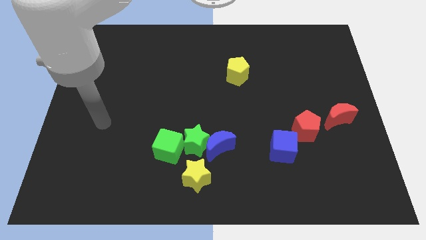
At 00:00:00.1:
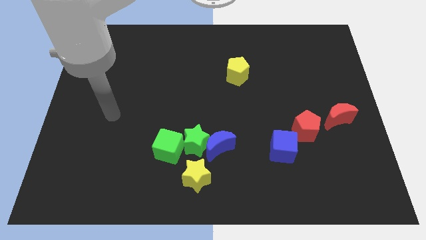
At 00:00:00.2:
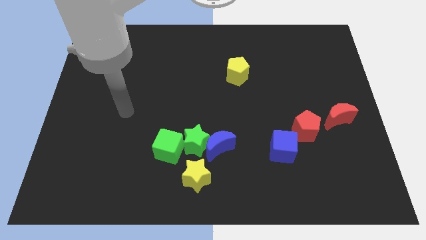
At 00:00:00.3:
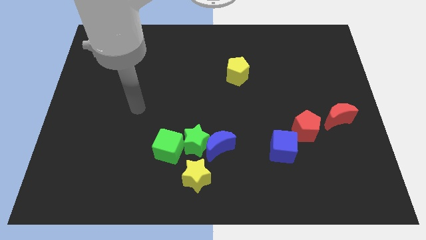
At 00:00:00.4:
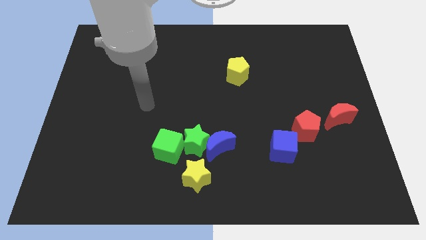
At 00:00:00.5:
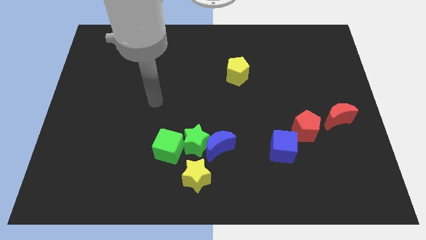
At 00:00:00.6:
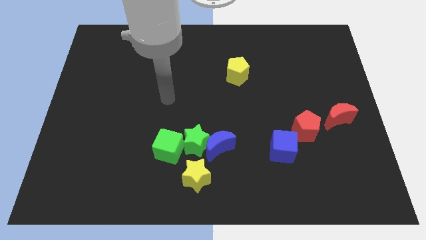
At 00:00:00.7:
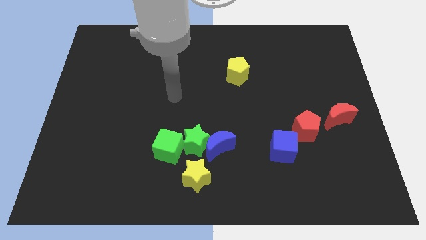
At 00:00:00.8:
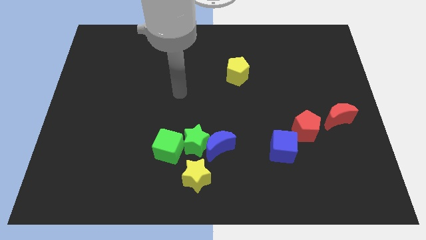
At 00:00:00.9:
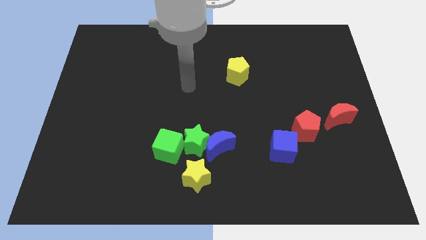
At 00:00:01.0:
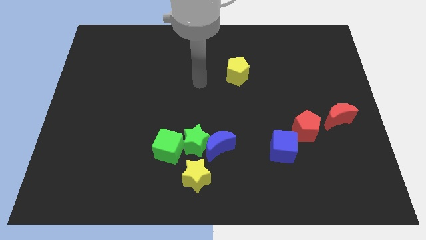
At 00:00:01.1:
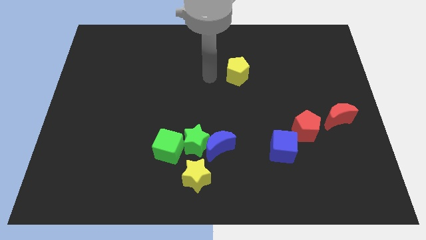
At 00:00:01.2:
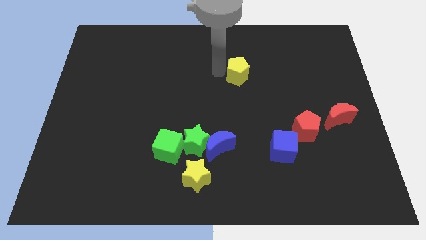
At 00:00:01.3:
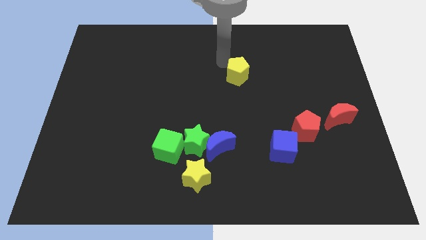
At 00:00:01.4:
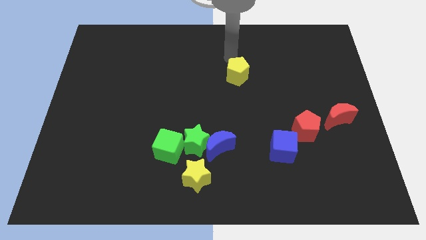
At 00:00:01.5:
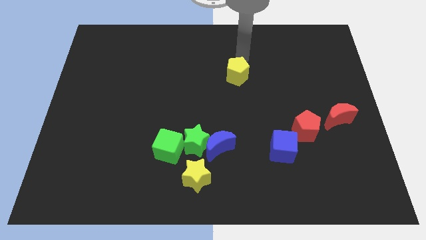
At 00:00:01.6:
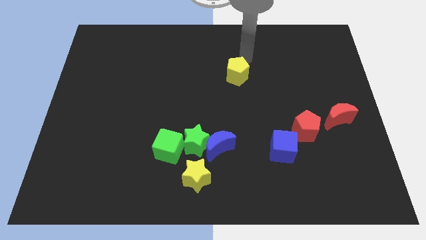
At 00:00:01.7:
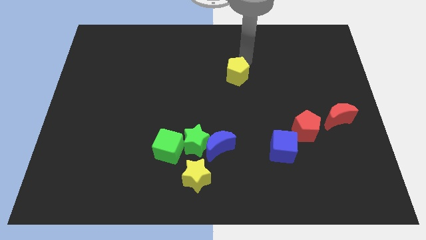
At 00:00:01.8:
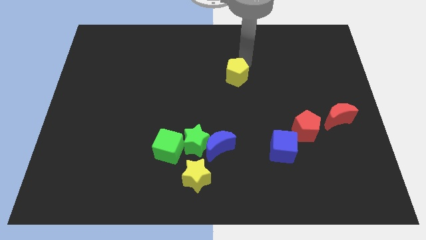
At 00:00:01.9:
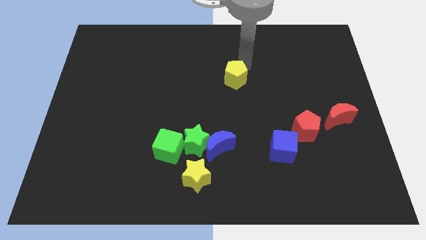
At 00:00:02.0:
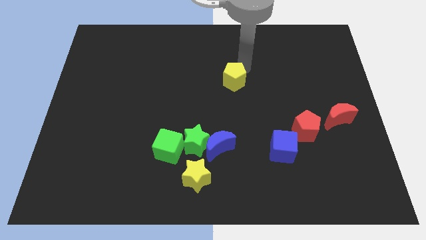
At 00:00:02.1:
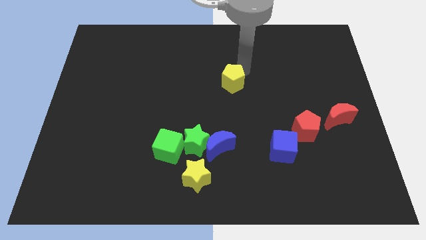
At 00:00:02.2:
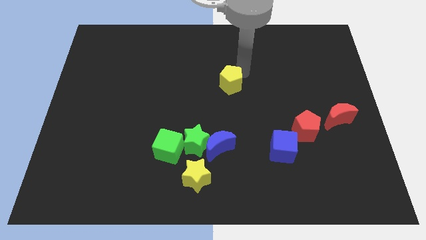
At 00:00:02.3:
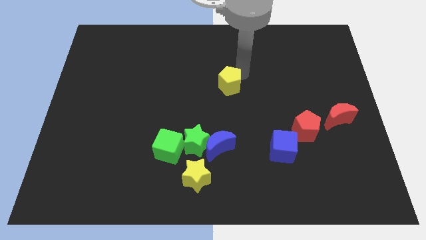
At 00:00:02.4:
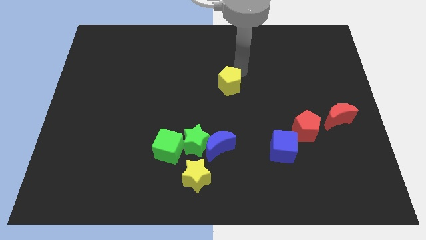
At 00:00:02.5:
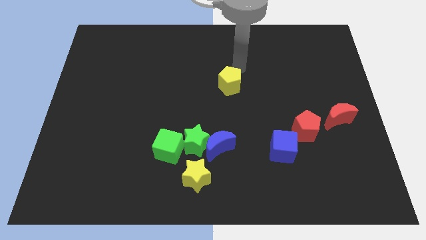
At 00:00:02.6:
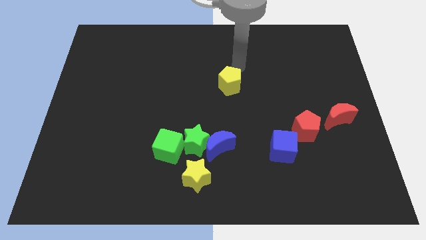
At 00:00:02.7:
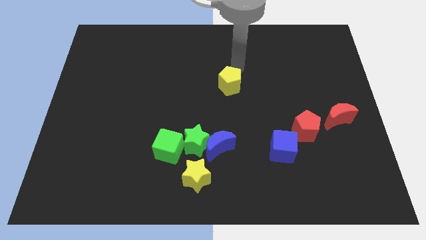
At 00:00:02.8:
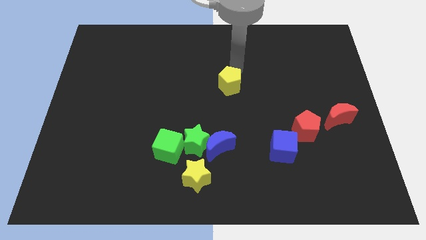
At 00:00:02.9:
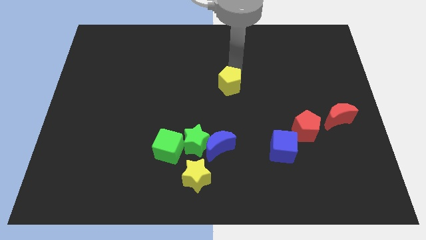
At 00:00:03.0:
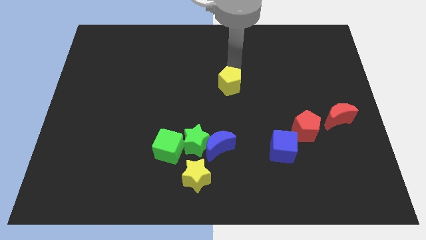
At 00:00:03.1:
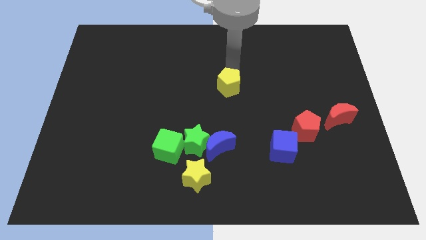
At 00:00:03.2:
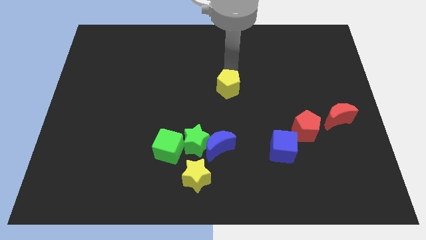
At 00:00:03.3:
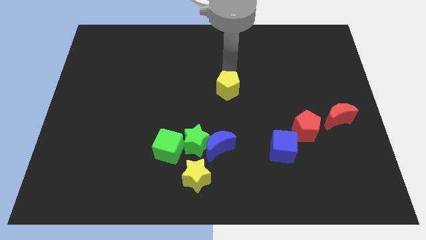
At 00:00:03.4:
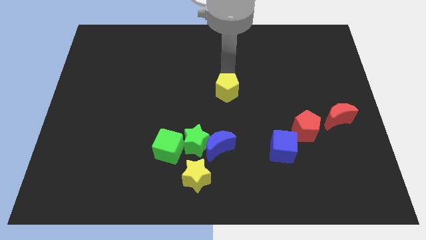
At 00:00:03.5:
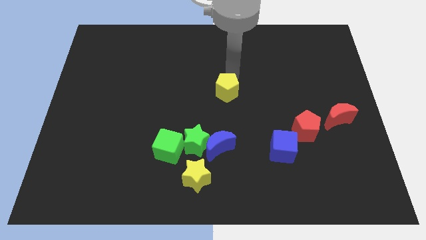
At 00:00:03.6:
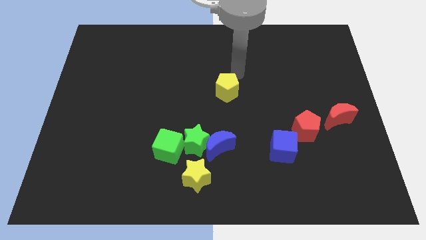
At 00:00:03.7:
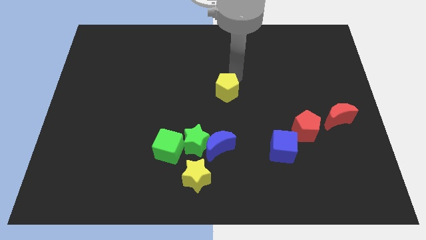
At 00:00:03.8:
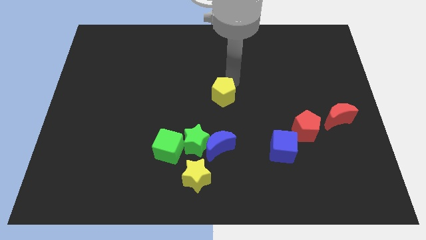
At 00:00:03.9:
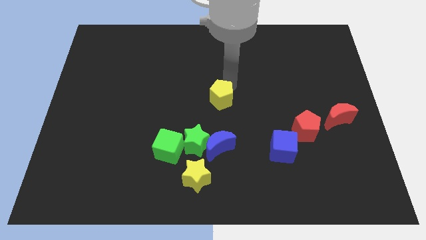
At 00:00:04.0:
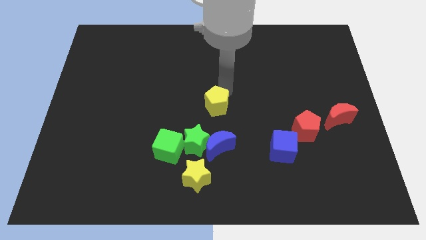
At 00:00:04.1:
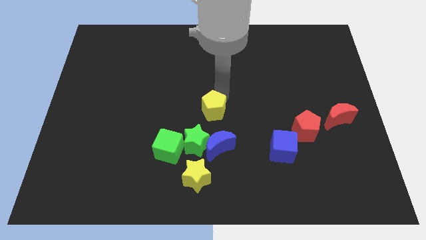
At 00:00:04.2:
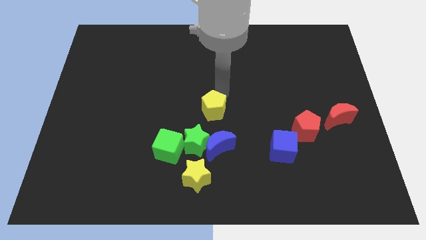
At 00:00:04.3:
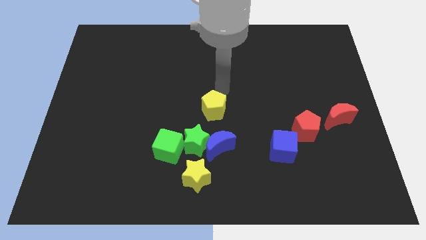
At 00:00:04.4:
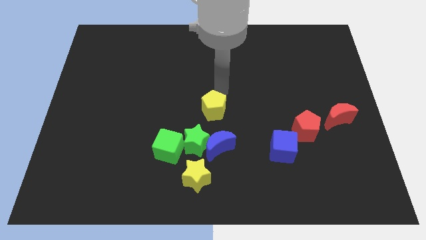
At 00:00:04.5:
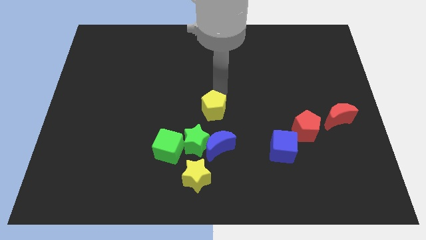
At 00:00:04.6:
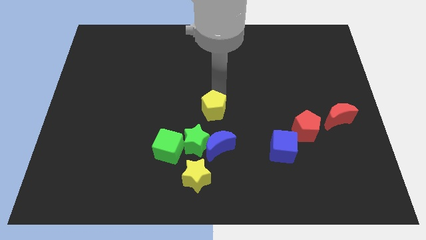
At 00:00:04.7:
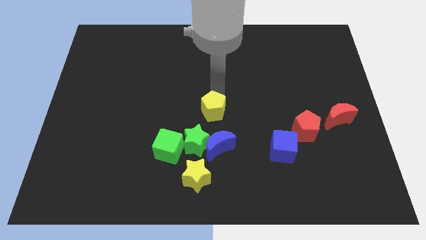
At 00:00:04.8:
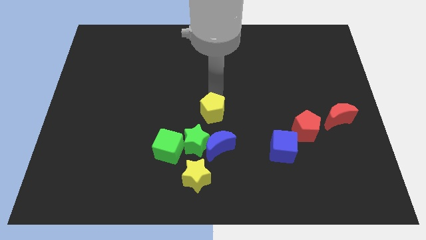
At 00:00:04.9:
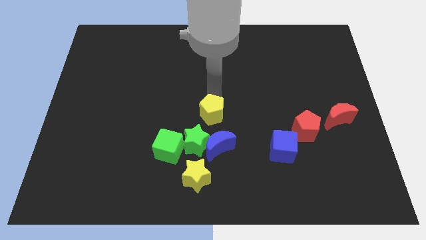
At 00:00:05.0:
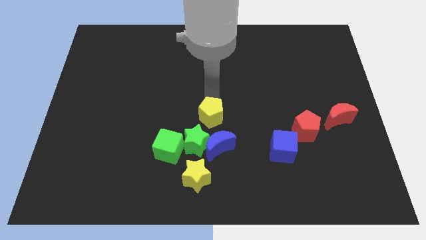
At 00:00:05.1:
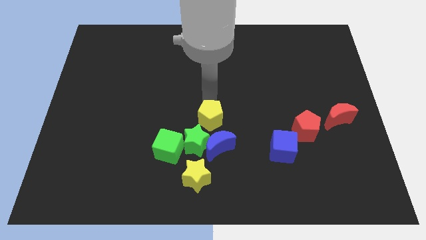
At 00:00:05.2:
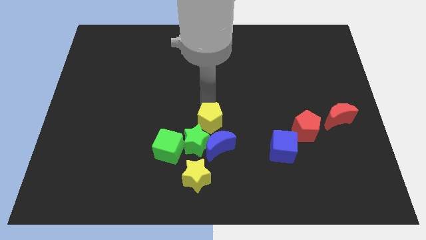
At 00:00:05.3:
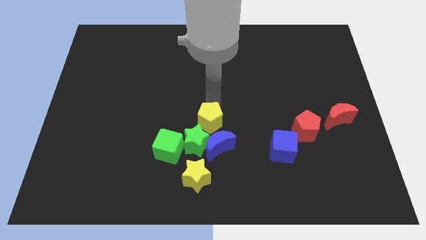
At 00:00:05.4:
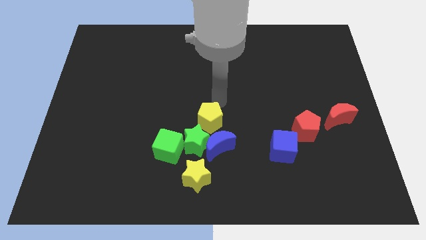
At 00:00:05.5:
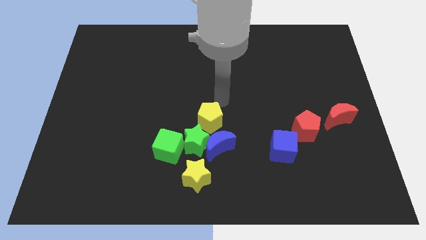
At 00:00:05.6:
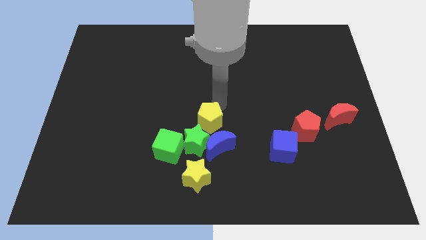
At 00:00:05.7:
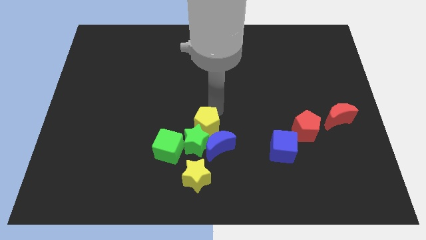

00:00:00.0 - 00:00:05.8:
put the yellow pentagon to the green star

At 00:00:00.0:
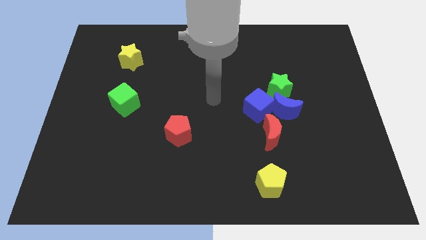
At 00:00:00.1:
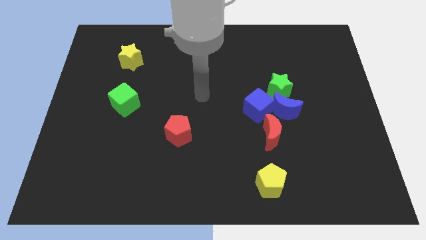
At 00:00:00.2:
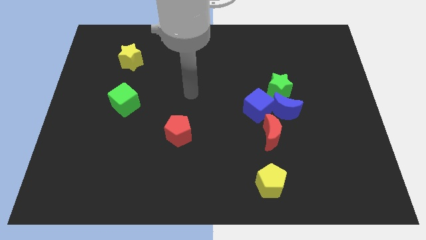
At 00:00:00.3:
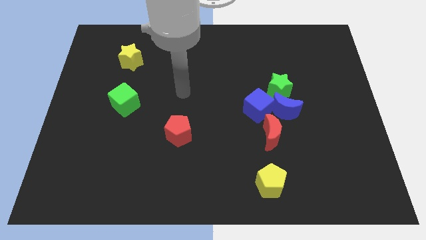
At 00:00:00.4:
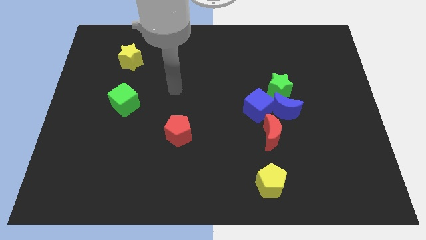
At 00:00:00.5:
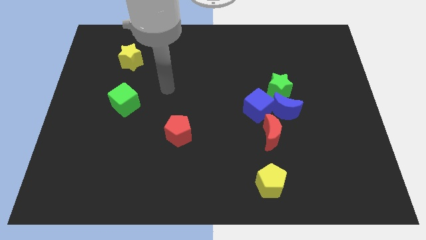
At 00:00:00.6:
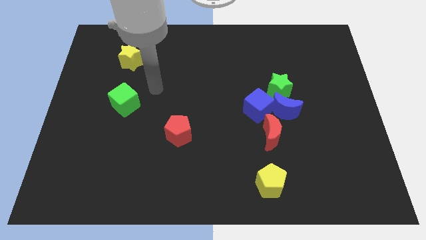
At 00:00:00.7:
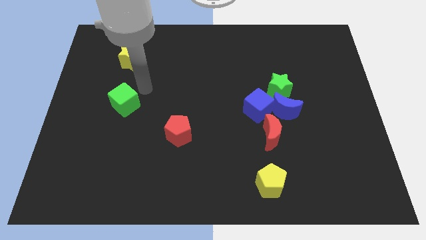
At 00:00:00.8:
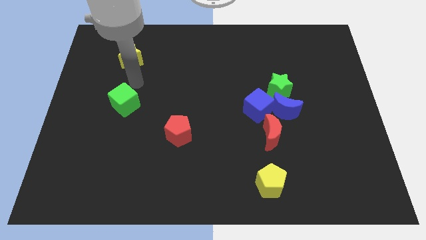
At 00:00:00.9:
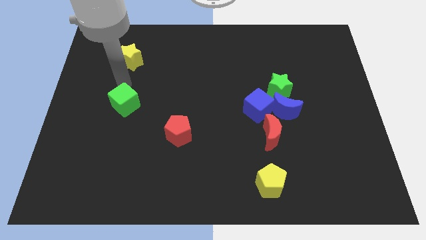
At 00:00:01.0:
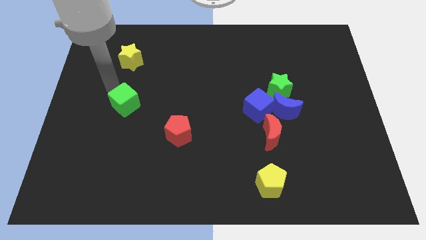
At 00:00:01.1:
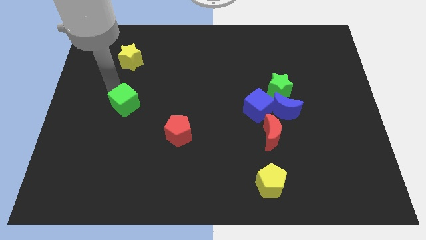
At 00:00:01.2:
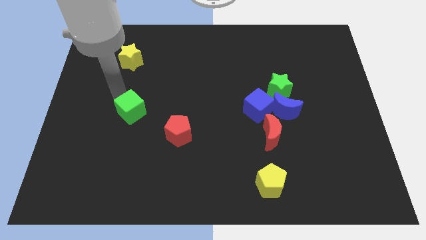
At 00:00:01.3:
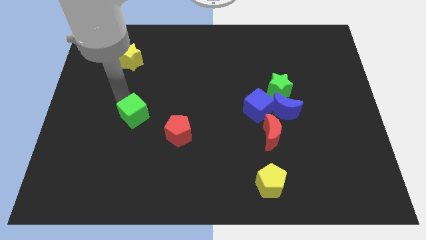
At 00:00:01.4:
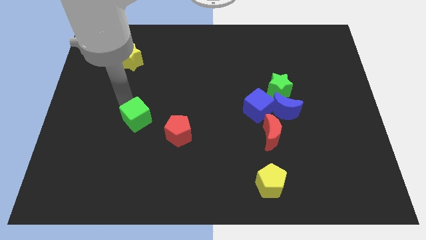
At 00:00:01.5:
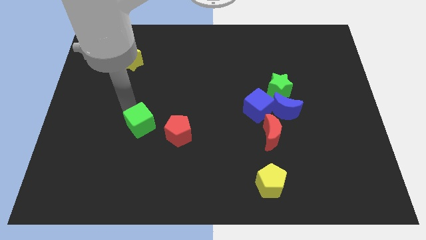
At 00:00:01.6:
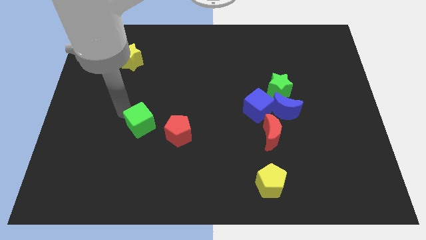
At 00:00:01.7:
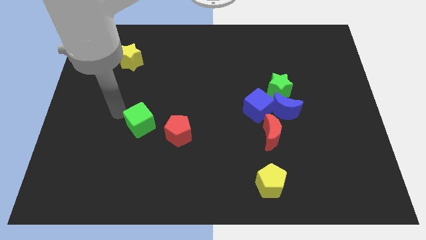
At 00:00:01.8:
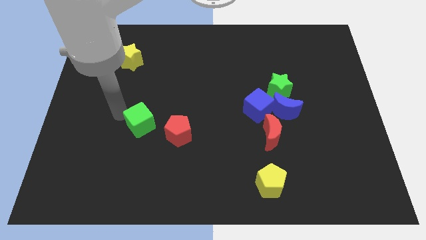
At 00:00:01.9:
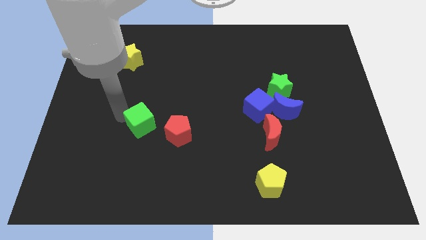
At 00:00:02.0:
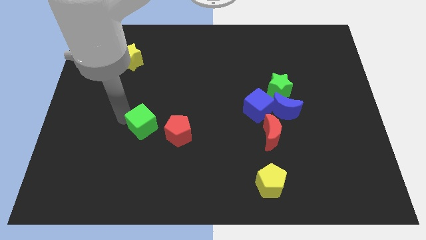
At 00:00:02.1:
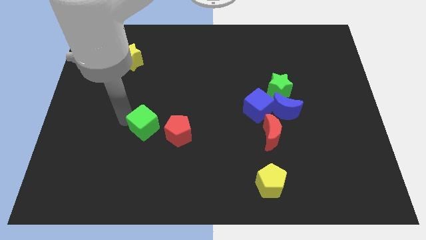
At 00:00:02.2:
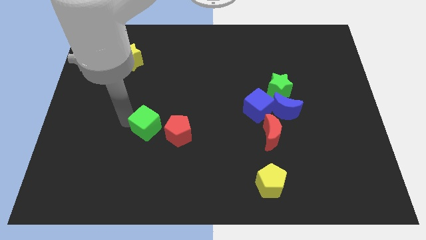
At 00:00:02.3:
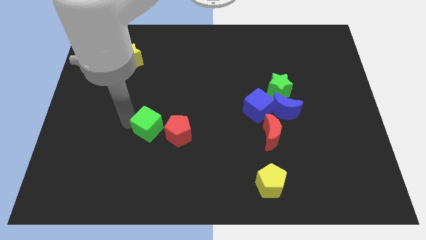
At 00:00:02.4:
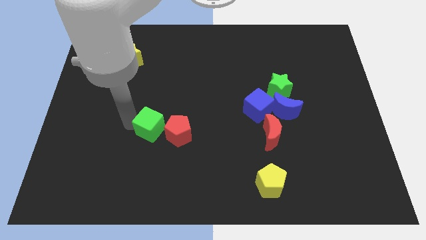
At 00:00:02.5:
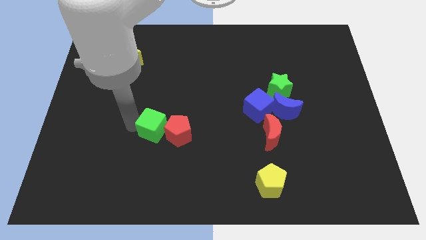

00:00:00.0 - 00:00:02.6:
push the green cube next to the red pentagon
